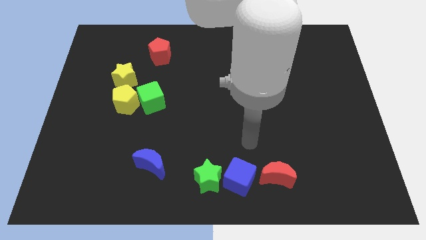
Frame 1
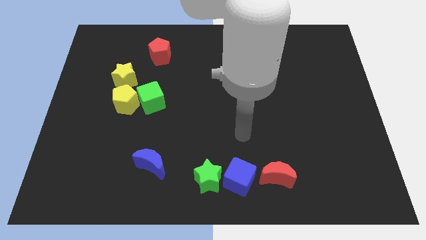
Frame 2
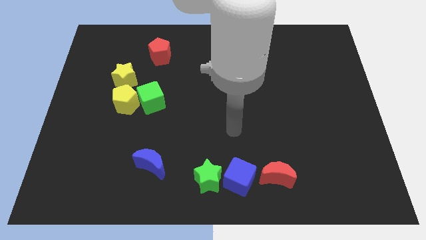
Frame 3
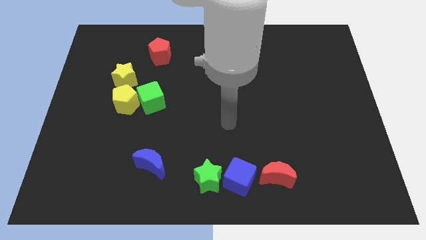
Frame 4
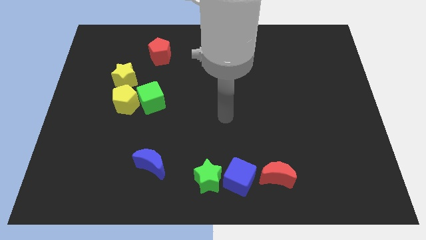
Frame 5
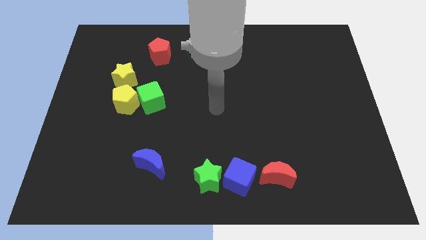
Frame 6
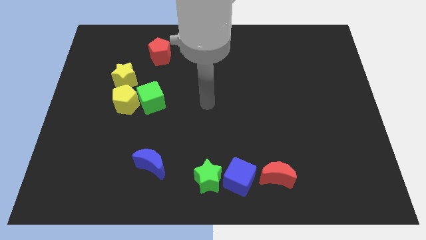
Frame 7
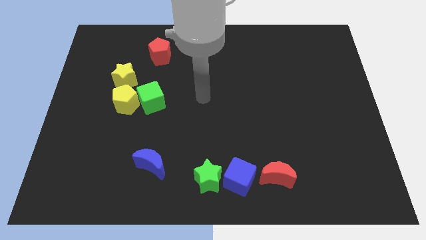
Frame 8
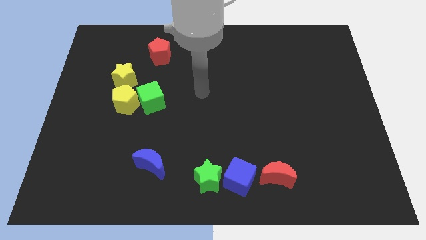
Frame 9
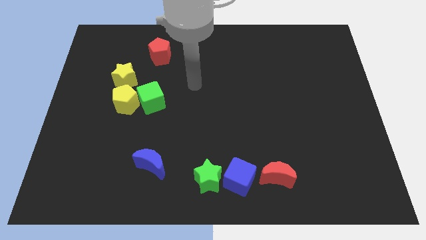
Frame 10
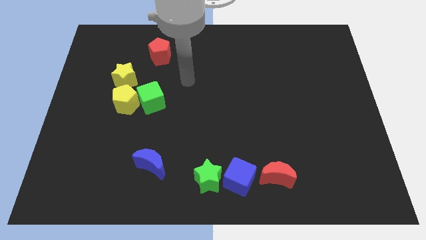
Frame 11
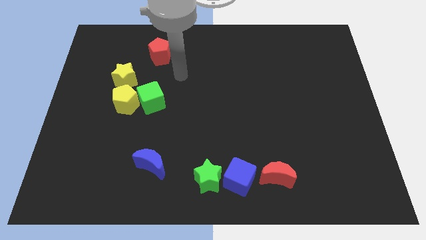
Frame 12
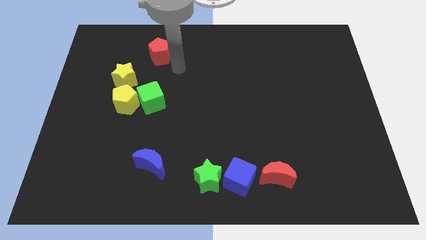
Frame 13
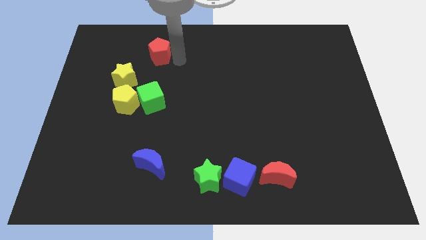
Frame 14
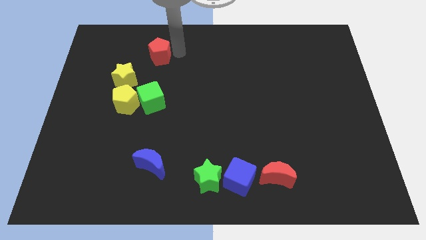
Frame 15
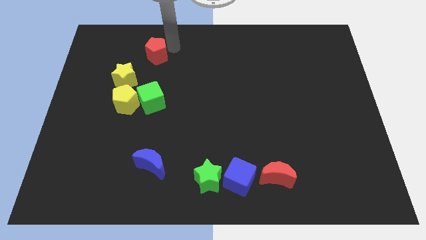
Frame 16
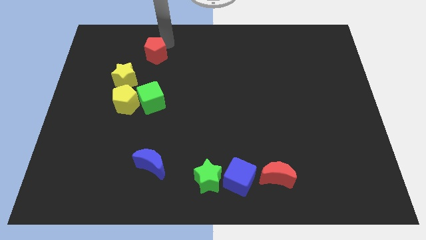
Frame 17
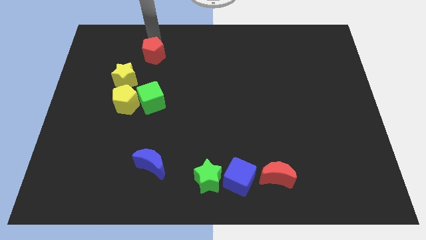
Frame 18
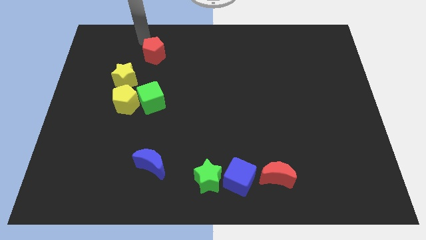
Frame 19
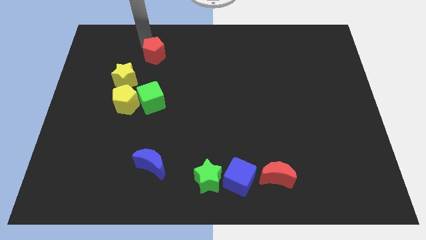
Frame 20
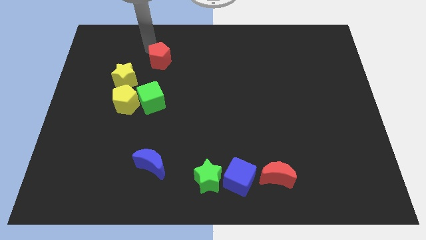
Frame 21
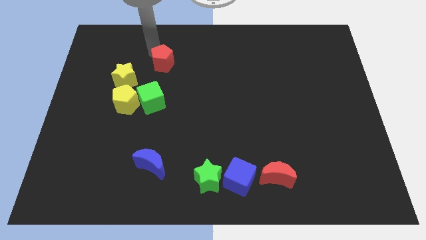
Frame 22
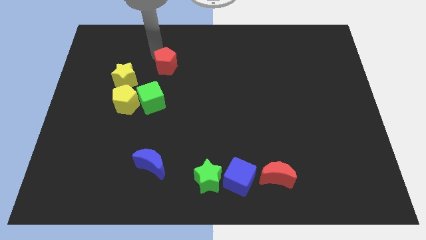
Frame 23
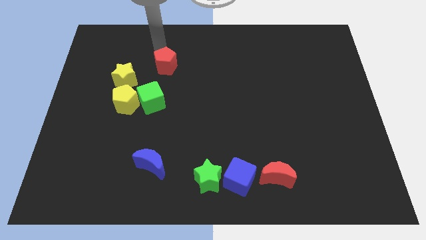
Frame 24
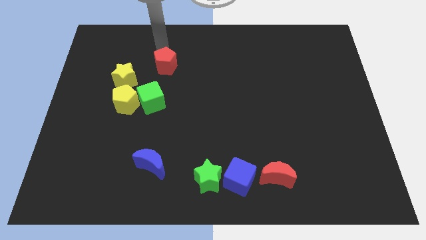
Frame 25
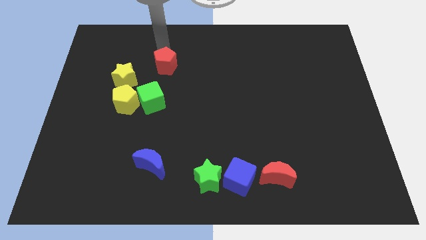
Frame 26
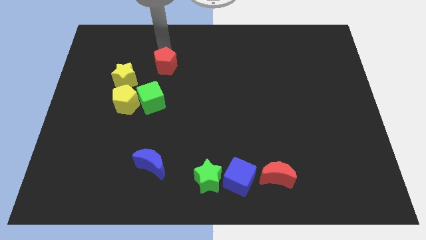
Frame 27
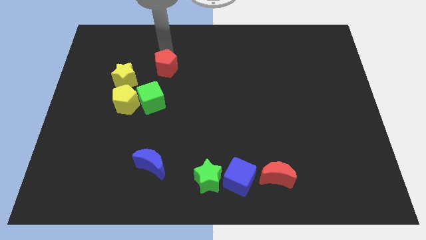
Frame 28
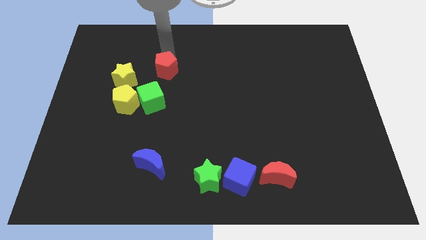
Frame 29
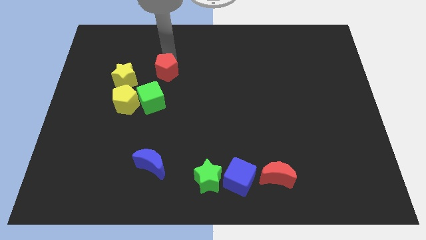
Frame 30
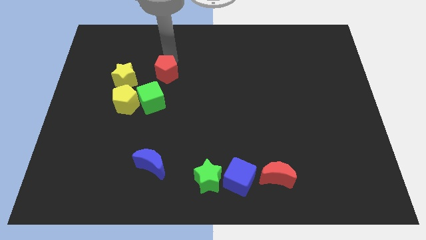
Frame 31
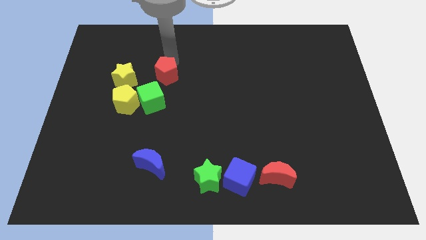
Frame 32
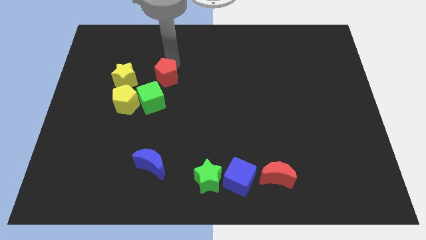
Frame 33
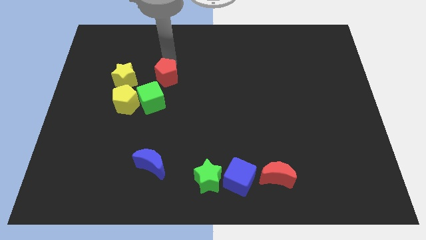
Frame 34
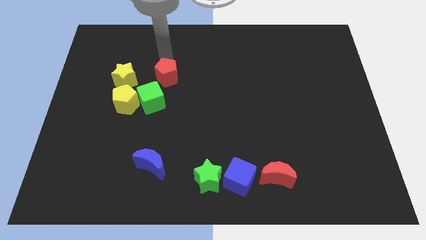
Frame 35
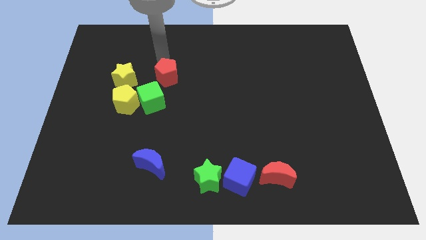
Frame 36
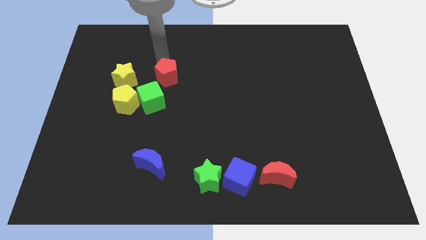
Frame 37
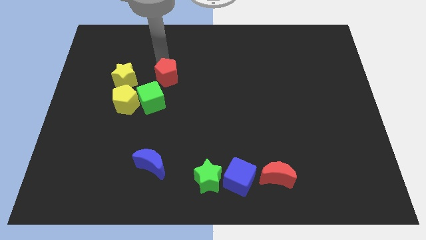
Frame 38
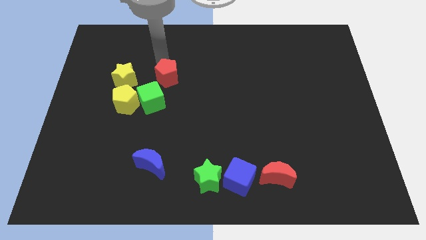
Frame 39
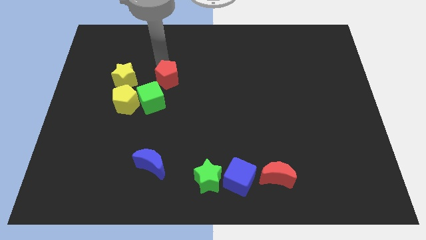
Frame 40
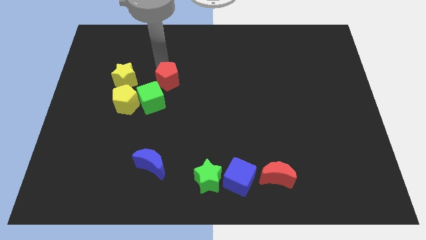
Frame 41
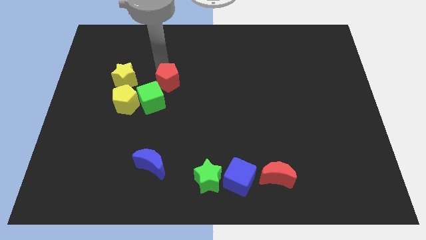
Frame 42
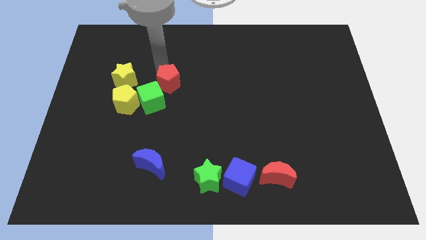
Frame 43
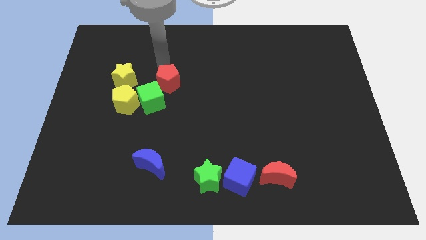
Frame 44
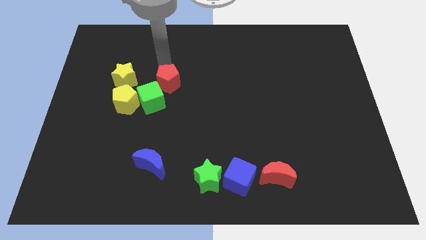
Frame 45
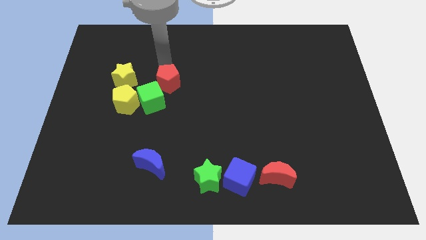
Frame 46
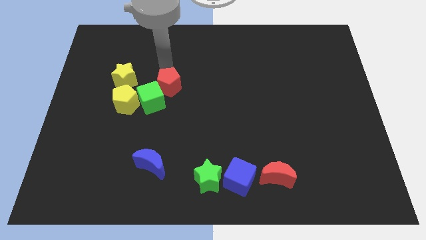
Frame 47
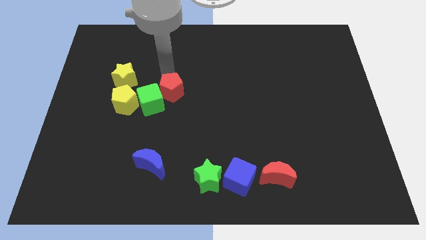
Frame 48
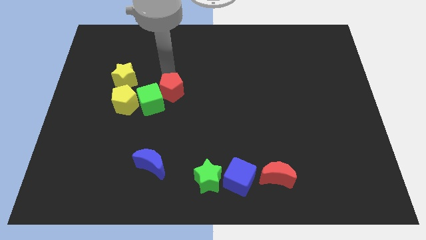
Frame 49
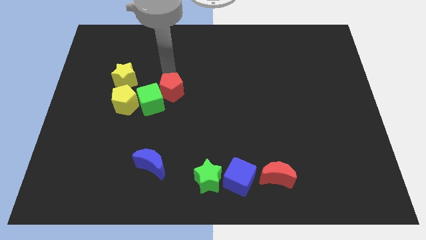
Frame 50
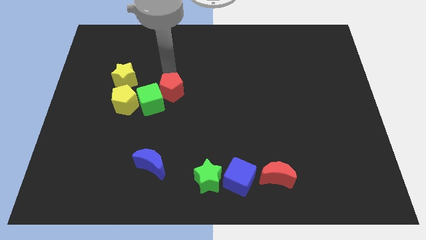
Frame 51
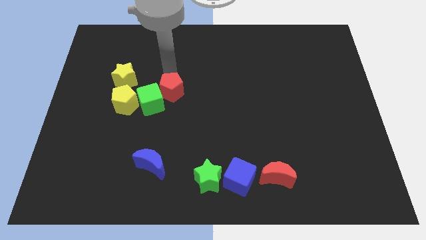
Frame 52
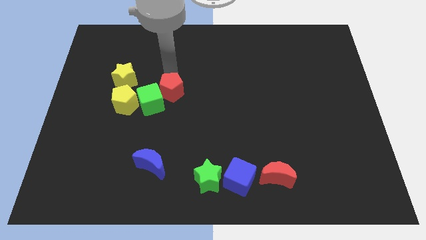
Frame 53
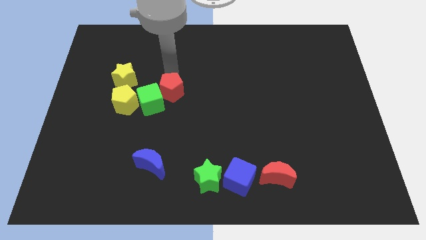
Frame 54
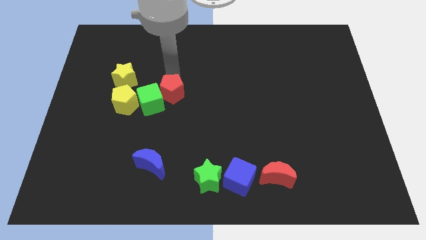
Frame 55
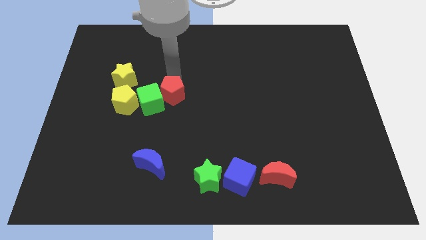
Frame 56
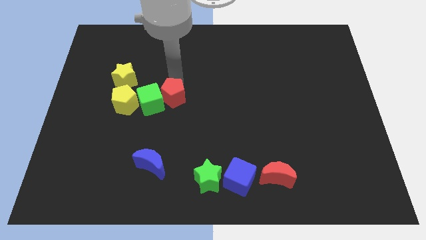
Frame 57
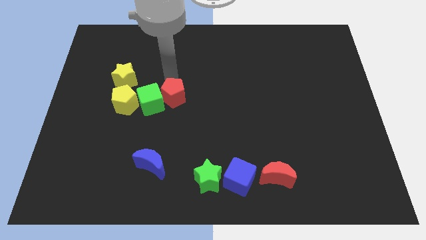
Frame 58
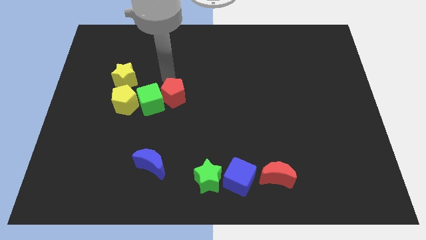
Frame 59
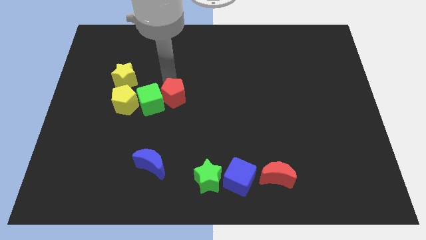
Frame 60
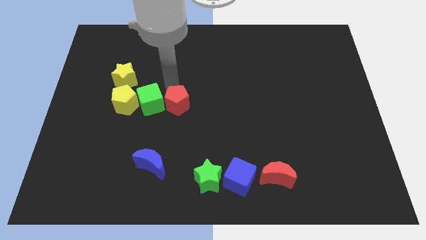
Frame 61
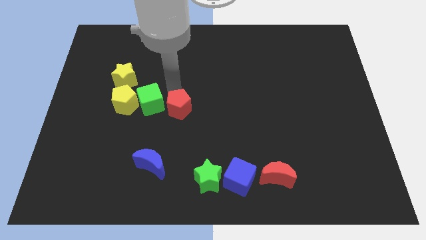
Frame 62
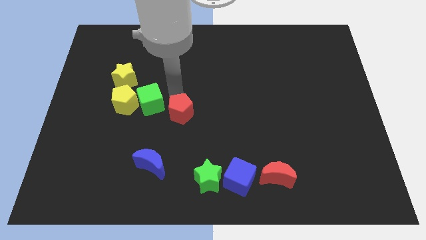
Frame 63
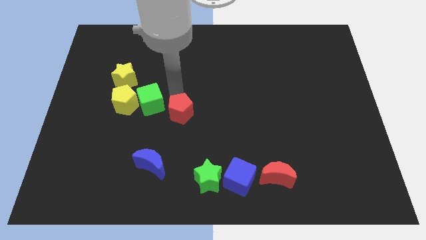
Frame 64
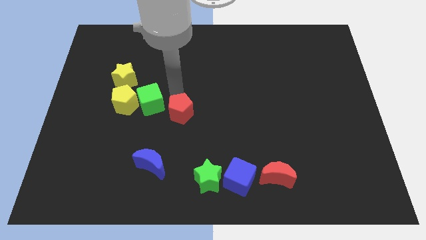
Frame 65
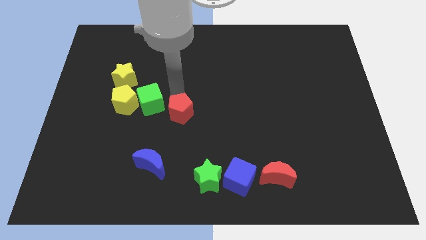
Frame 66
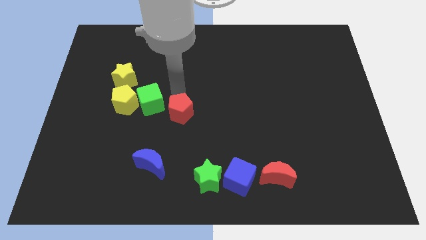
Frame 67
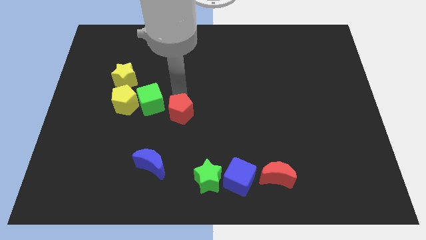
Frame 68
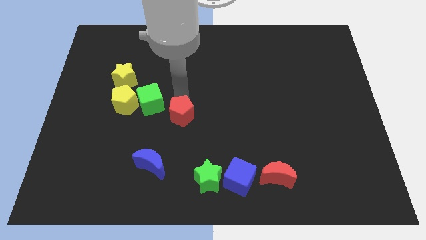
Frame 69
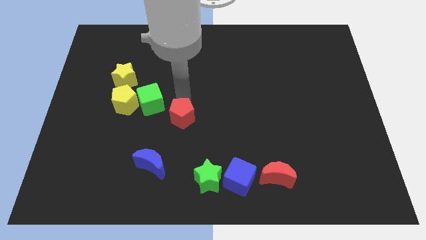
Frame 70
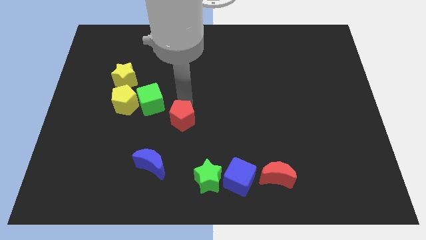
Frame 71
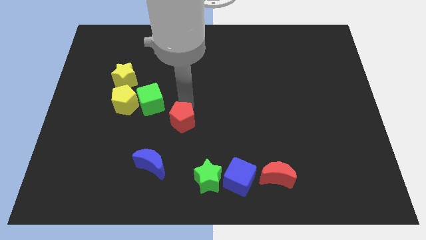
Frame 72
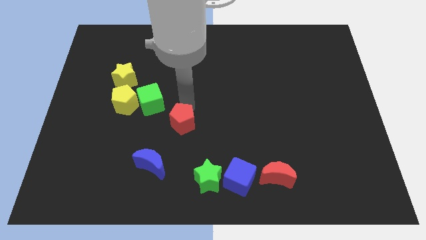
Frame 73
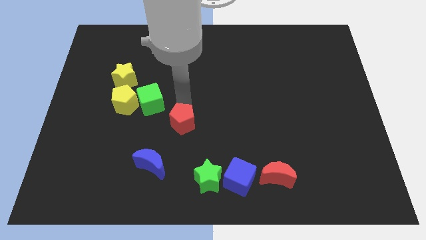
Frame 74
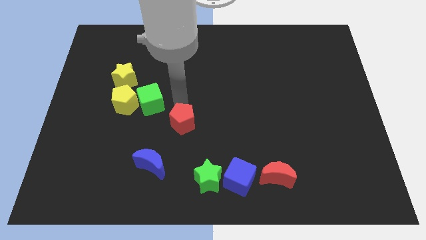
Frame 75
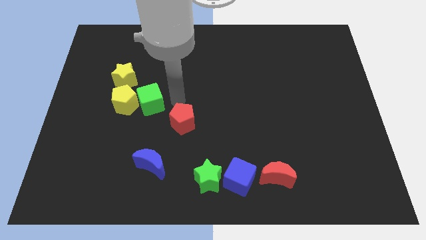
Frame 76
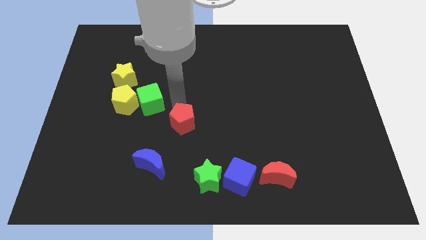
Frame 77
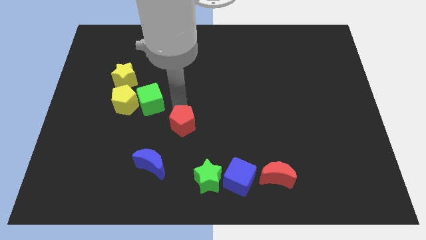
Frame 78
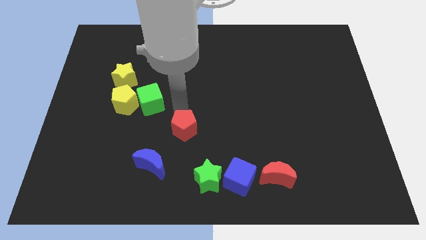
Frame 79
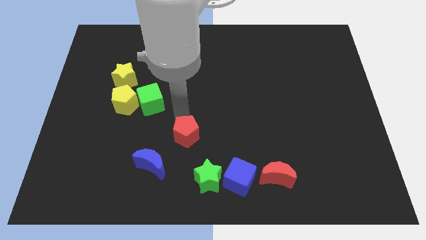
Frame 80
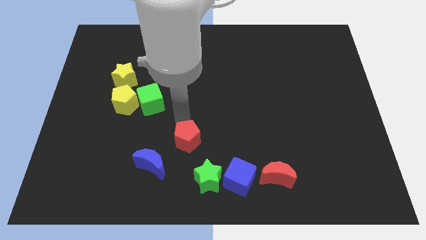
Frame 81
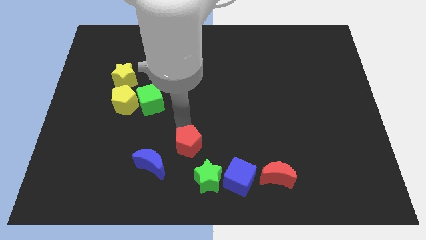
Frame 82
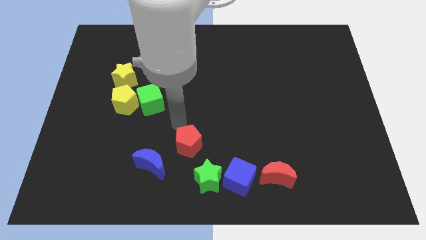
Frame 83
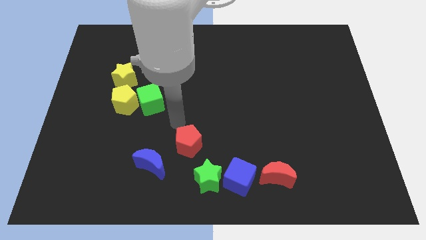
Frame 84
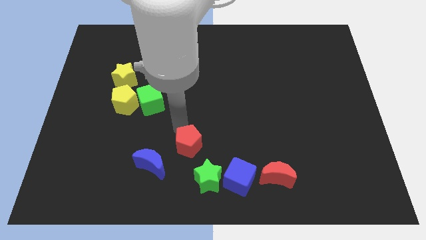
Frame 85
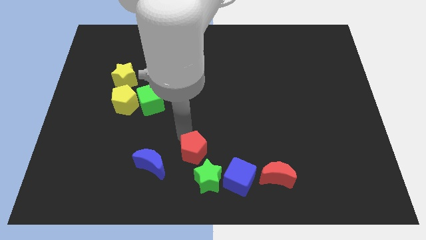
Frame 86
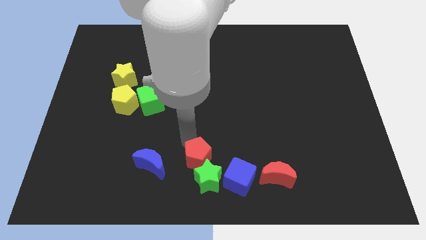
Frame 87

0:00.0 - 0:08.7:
move the red pentagon next to the green star
